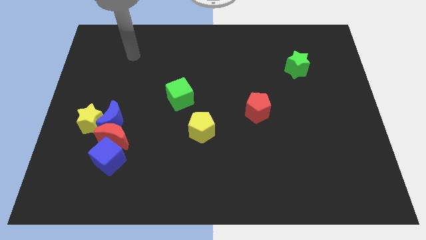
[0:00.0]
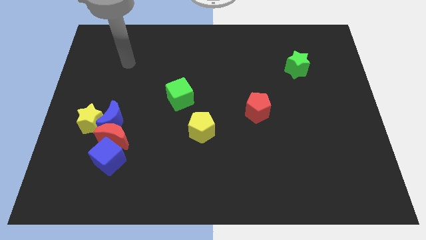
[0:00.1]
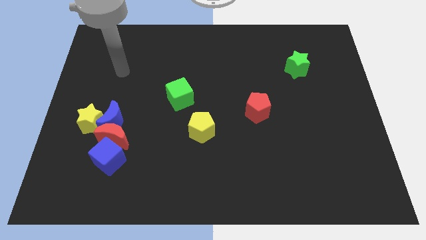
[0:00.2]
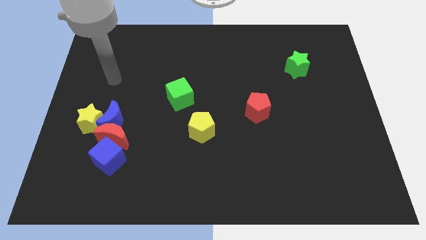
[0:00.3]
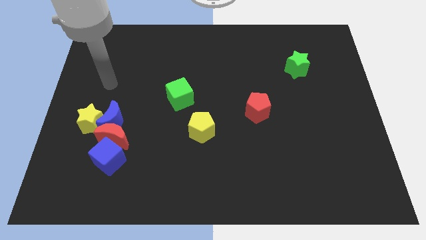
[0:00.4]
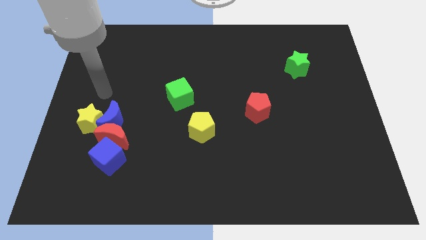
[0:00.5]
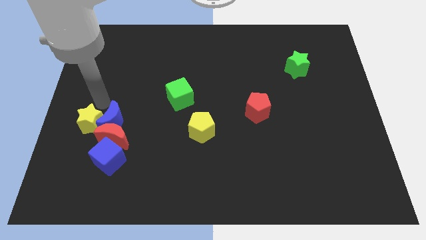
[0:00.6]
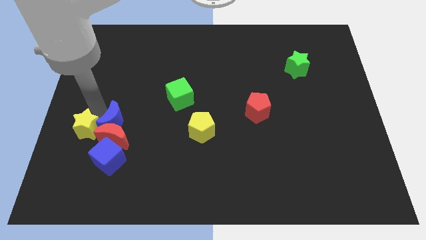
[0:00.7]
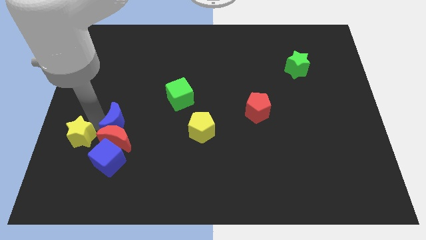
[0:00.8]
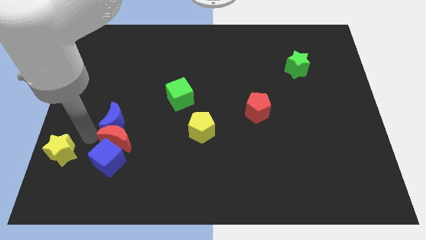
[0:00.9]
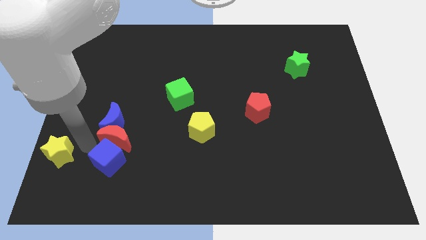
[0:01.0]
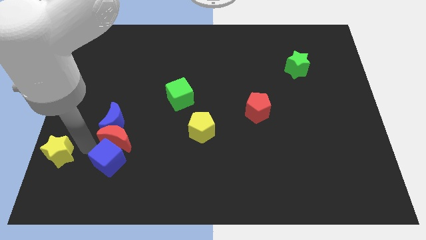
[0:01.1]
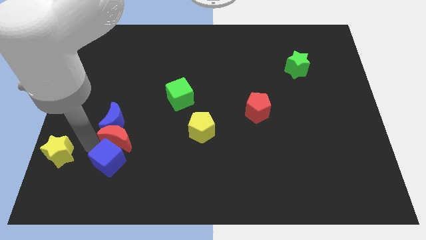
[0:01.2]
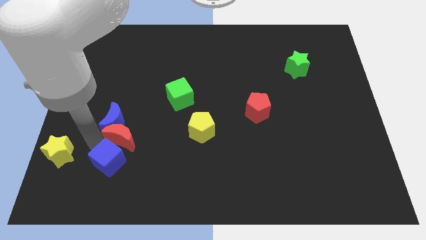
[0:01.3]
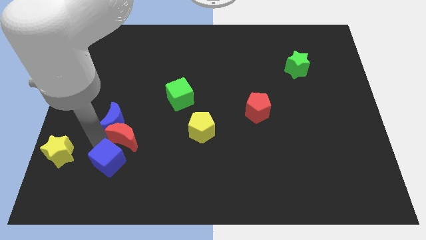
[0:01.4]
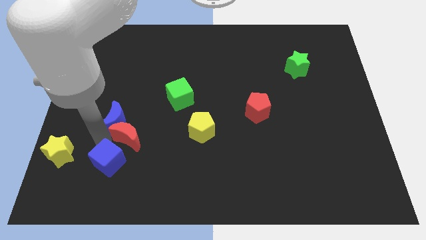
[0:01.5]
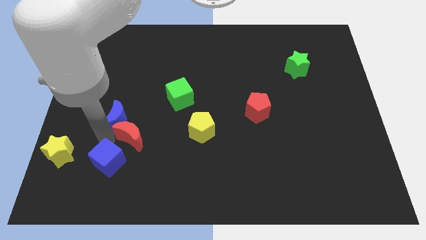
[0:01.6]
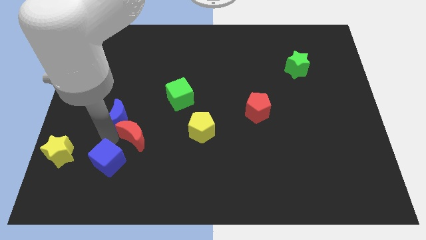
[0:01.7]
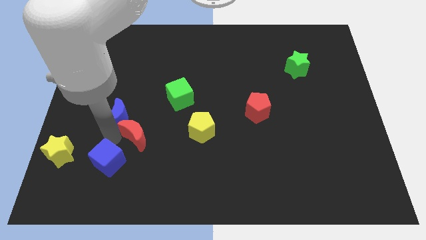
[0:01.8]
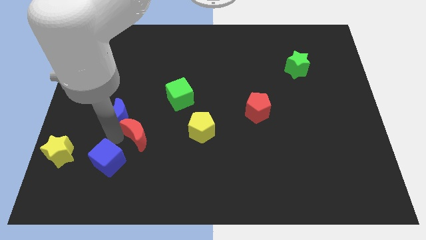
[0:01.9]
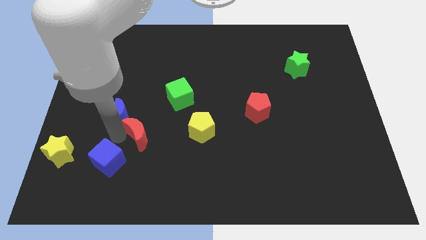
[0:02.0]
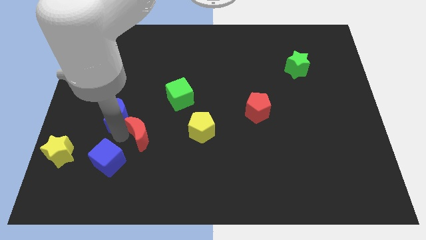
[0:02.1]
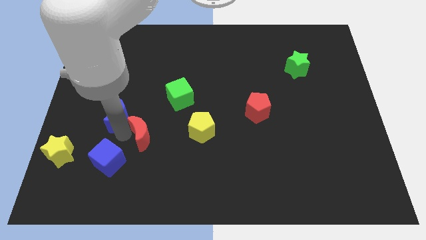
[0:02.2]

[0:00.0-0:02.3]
separate the red moon from the blue moon, blue cube, and yellow star

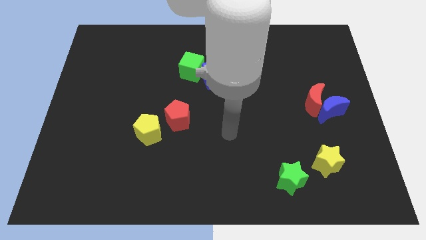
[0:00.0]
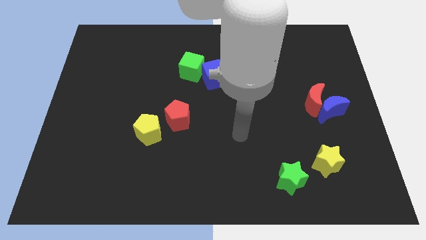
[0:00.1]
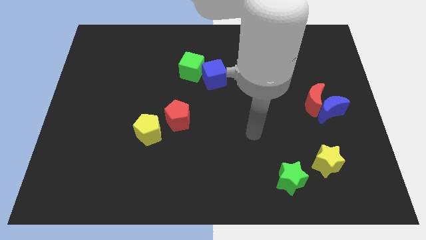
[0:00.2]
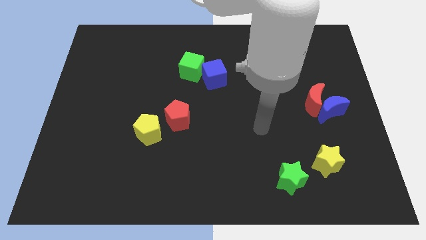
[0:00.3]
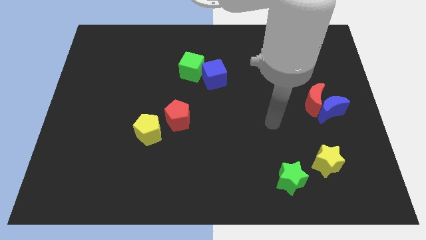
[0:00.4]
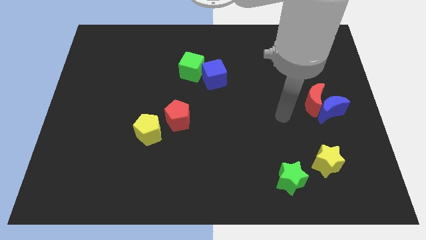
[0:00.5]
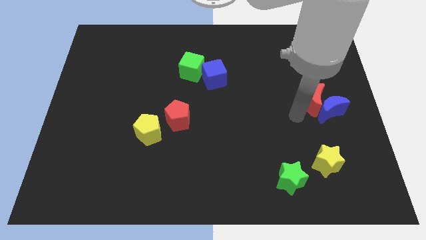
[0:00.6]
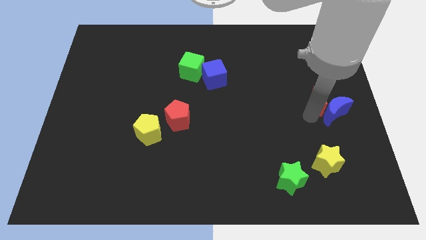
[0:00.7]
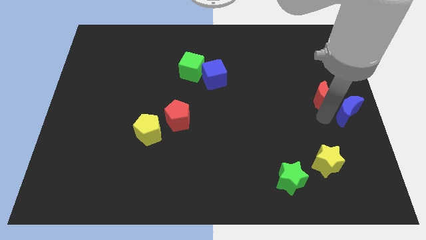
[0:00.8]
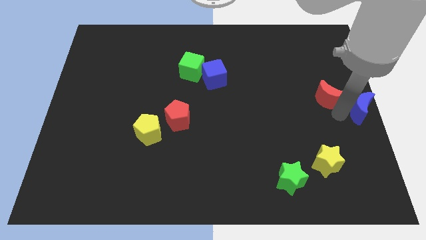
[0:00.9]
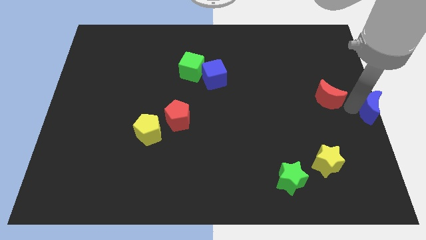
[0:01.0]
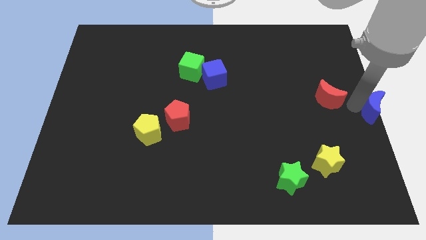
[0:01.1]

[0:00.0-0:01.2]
separate the red moon from the blue moon

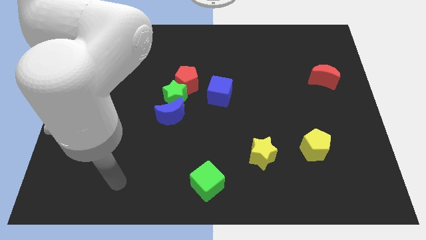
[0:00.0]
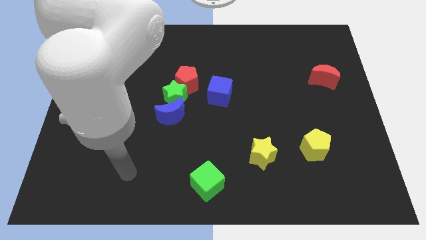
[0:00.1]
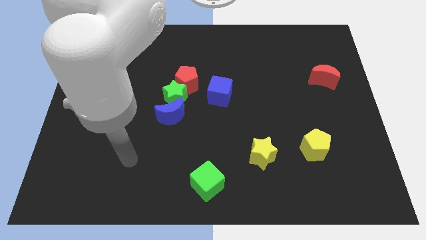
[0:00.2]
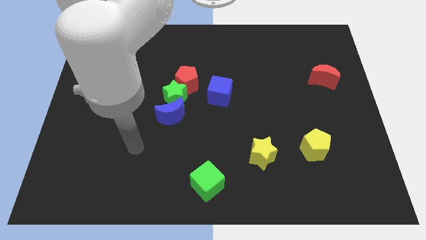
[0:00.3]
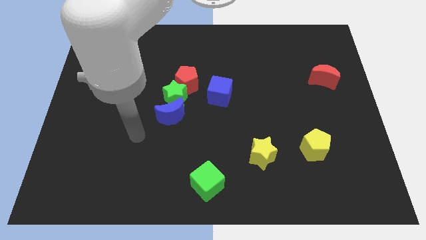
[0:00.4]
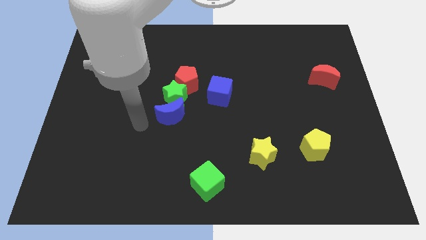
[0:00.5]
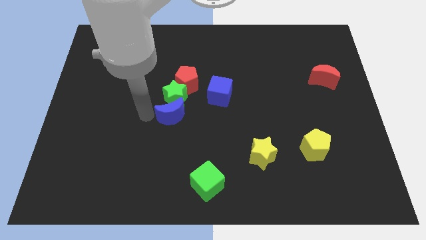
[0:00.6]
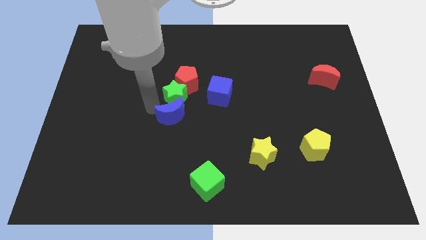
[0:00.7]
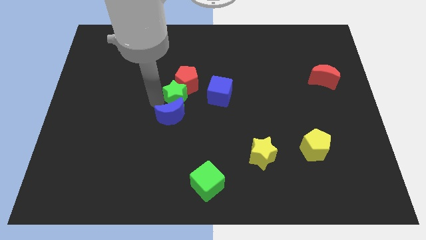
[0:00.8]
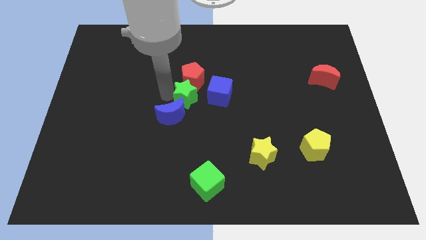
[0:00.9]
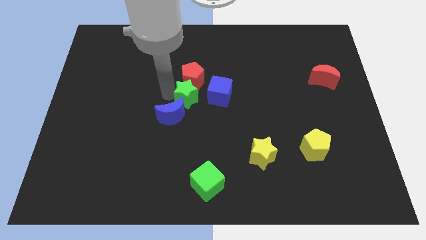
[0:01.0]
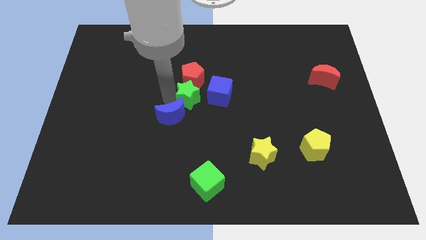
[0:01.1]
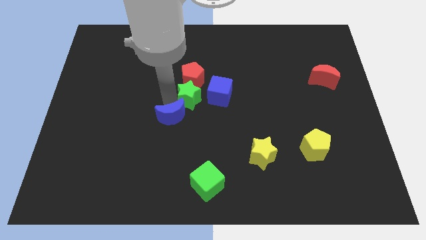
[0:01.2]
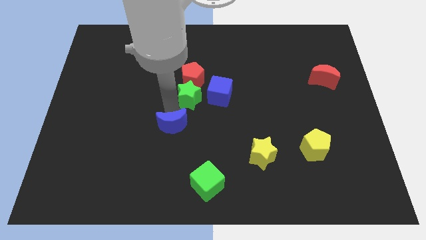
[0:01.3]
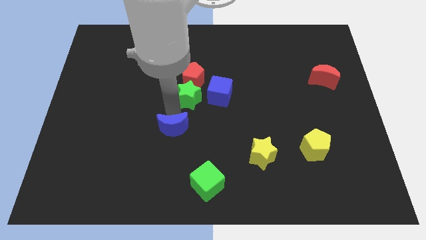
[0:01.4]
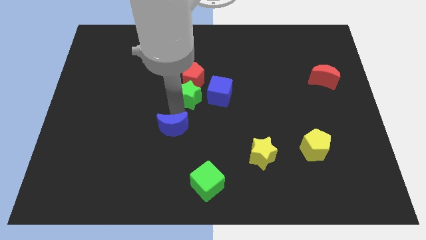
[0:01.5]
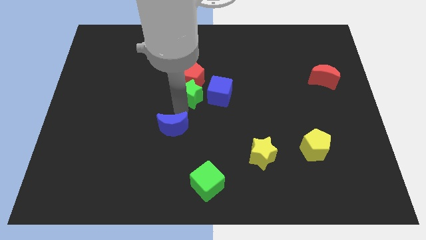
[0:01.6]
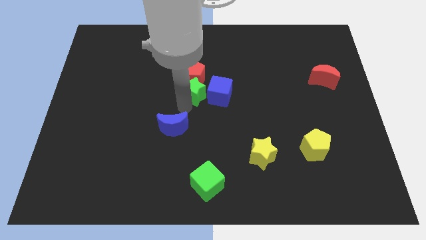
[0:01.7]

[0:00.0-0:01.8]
pull the blue moon apart from the green star

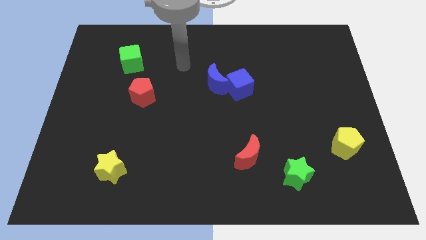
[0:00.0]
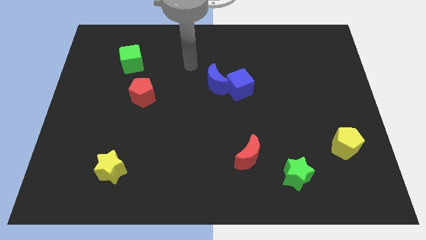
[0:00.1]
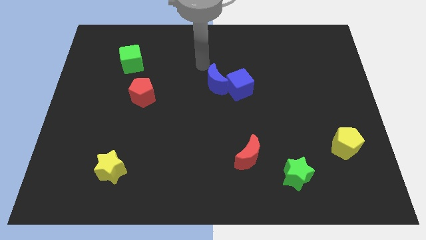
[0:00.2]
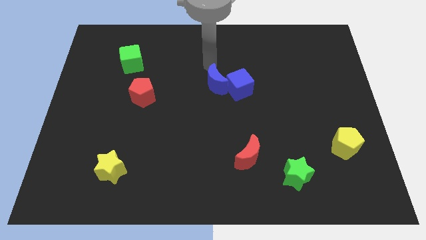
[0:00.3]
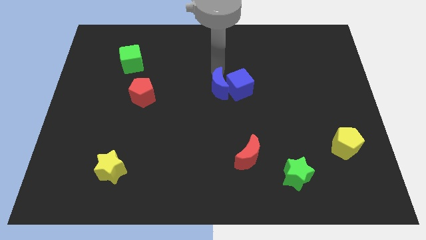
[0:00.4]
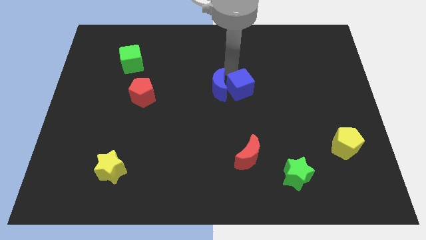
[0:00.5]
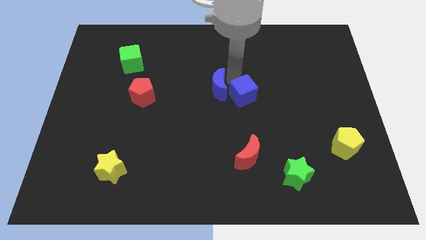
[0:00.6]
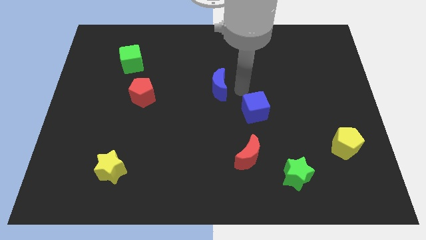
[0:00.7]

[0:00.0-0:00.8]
separate the blue moon from the blue cube

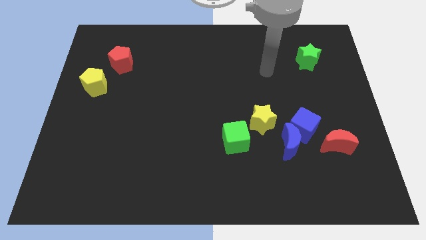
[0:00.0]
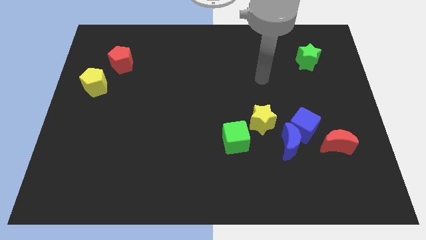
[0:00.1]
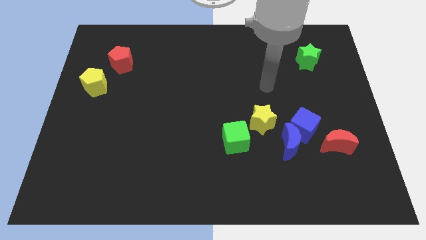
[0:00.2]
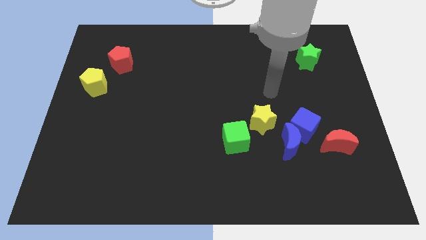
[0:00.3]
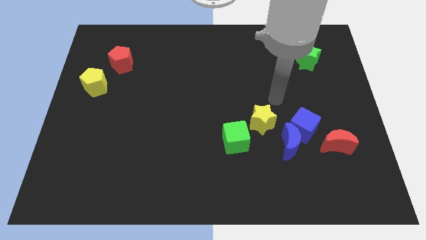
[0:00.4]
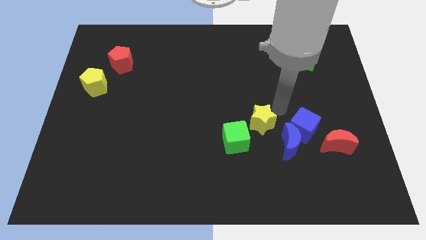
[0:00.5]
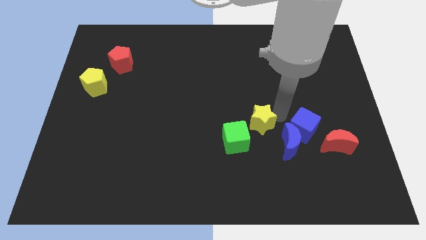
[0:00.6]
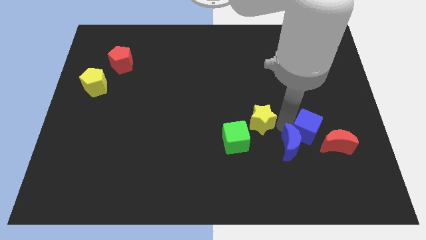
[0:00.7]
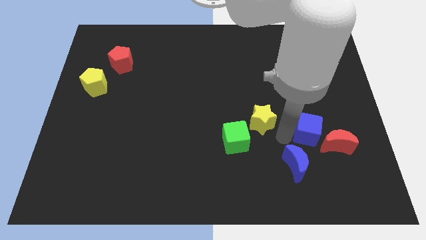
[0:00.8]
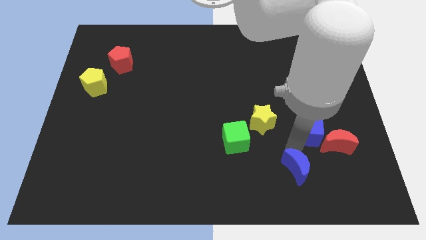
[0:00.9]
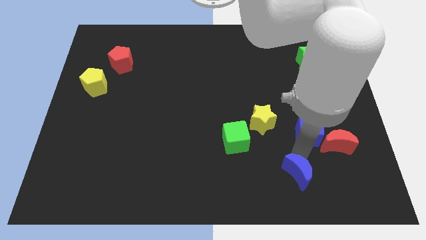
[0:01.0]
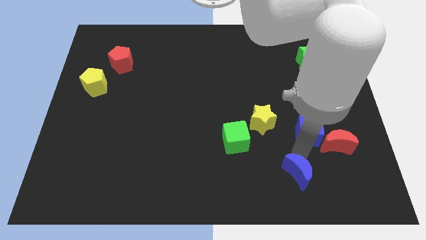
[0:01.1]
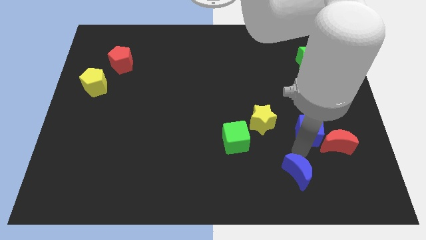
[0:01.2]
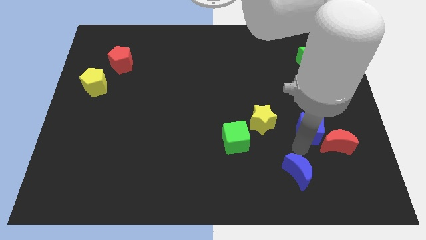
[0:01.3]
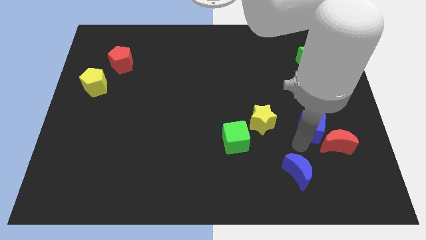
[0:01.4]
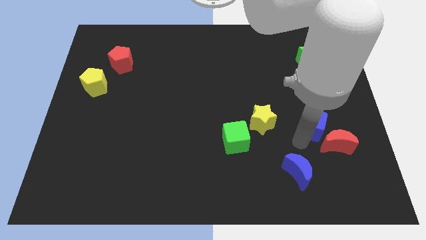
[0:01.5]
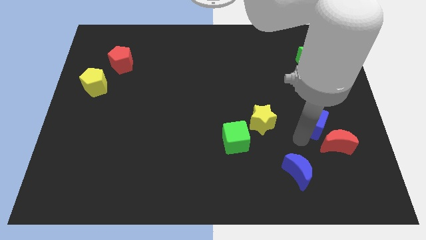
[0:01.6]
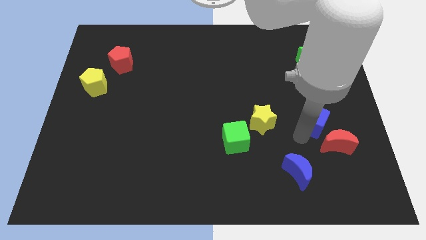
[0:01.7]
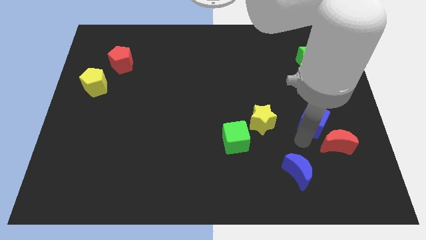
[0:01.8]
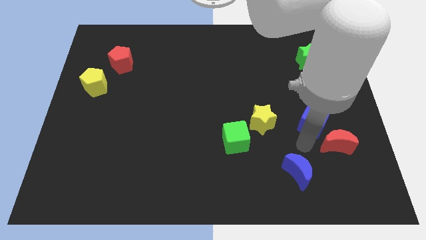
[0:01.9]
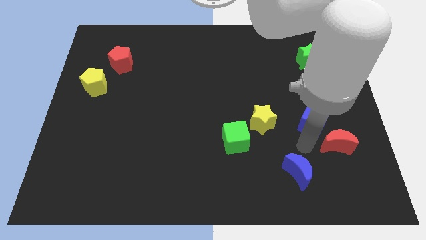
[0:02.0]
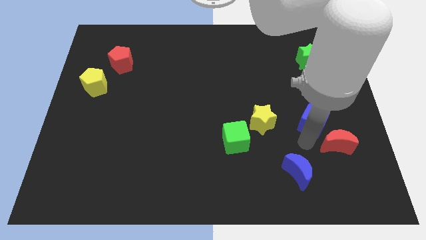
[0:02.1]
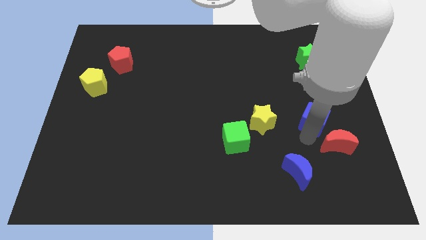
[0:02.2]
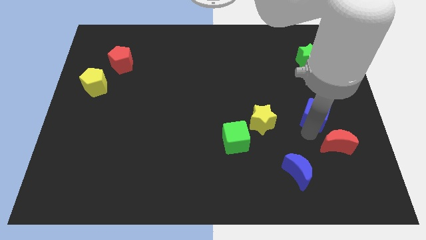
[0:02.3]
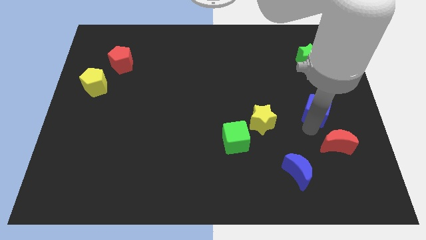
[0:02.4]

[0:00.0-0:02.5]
pull the blue cube apart from the clump

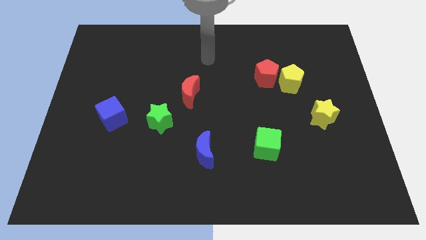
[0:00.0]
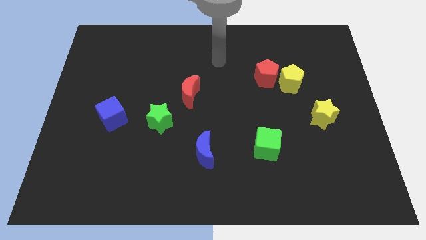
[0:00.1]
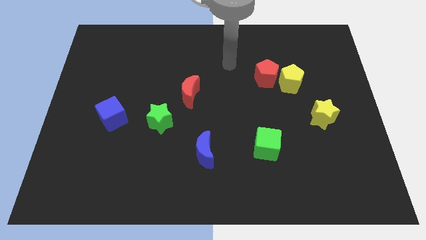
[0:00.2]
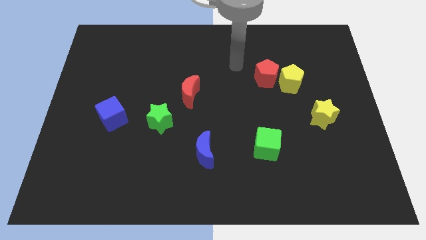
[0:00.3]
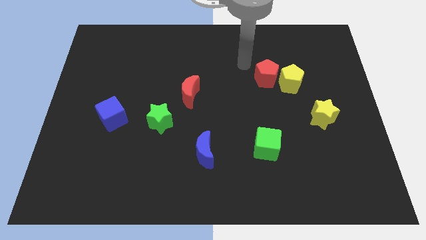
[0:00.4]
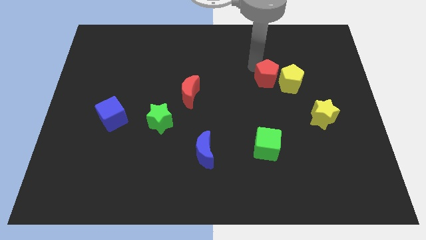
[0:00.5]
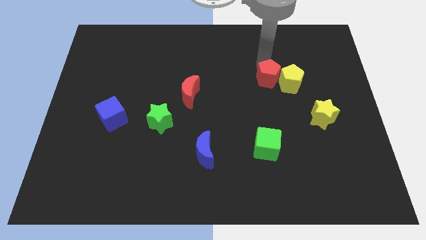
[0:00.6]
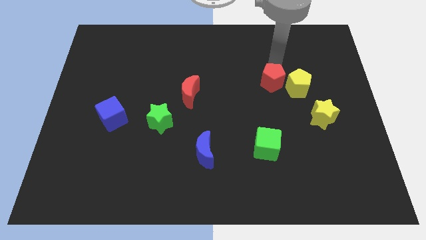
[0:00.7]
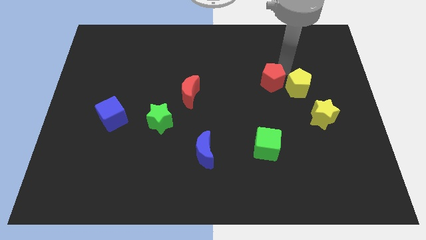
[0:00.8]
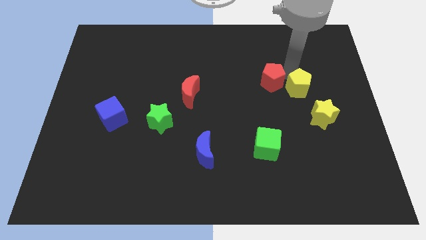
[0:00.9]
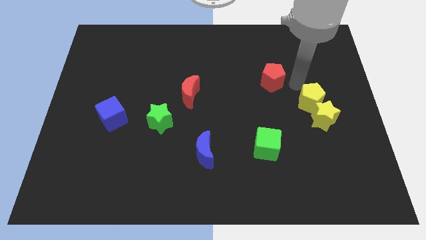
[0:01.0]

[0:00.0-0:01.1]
separate the red pentagon from the yellow pentagon
